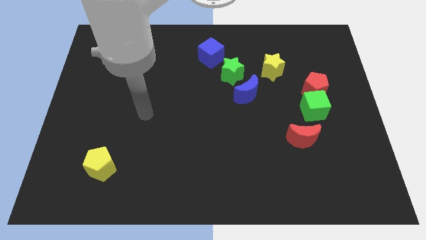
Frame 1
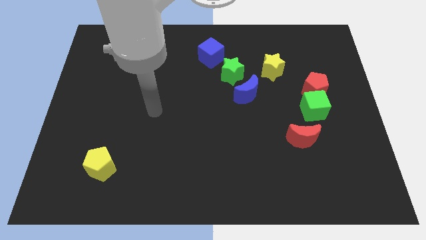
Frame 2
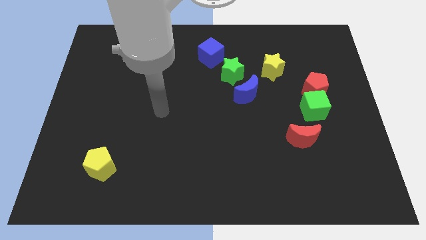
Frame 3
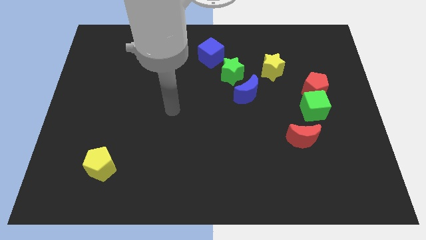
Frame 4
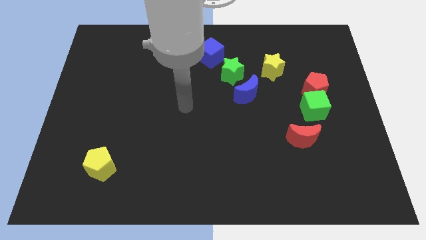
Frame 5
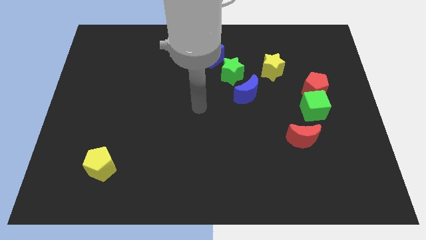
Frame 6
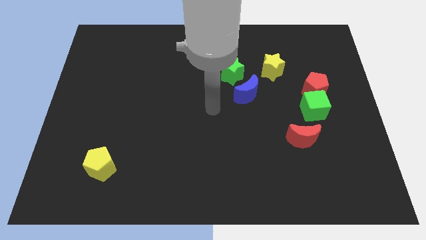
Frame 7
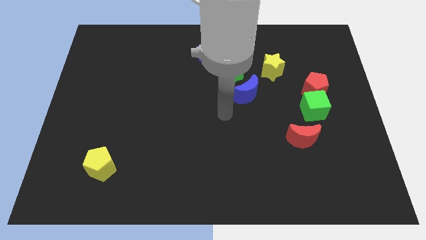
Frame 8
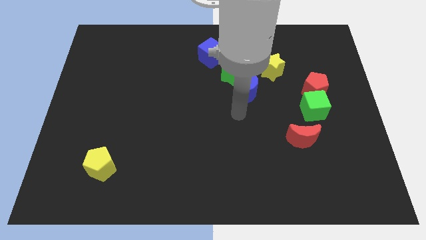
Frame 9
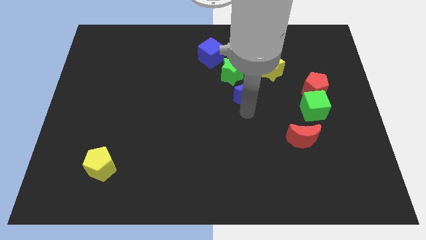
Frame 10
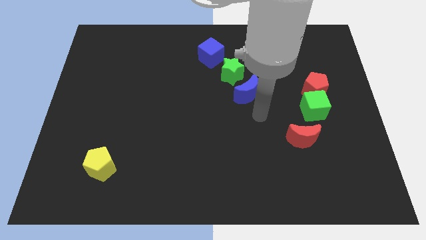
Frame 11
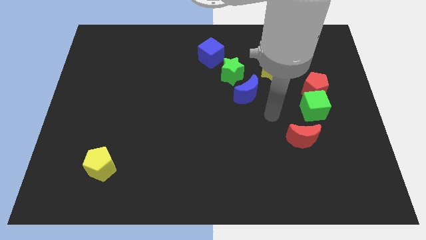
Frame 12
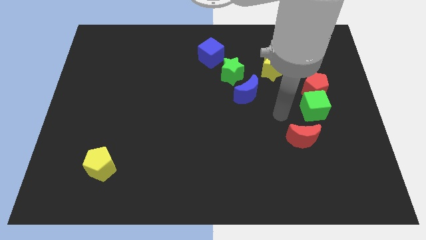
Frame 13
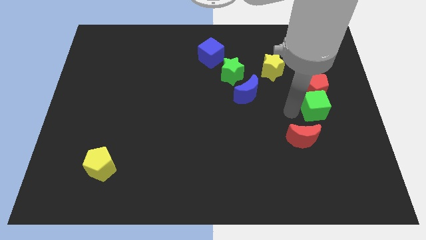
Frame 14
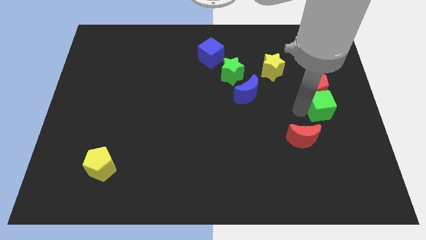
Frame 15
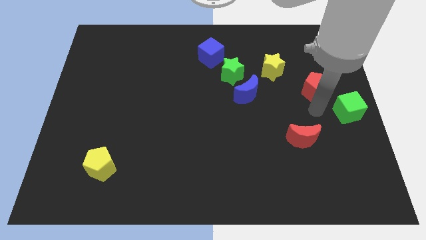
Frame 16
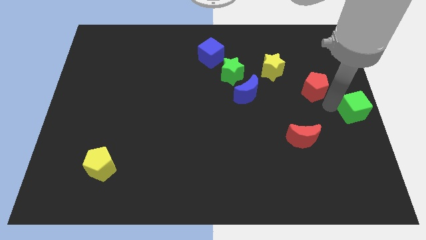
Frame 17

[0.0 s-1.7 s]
separate the red pentagon from the green cube

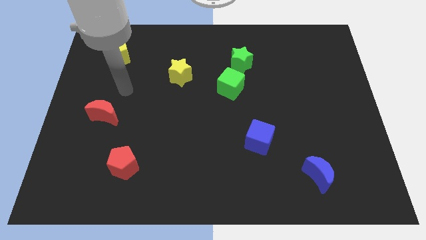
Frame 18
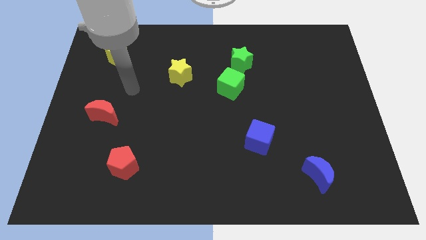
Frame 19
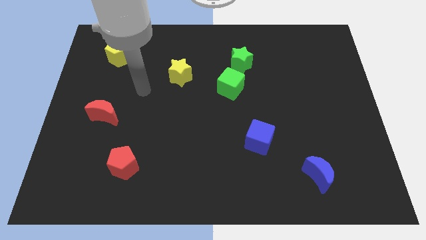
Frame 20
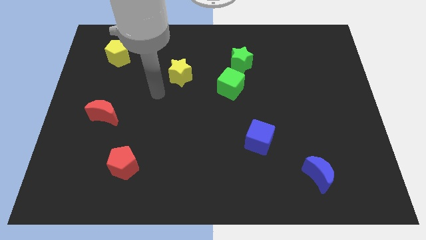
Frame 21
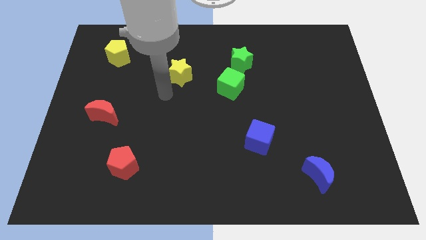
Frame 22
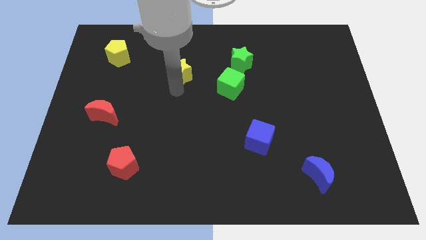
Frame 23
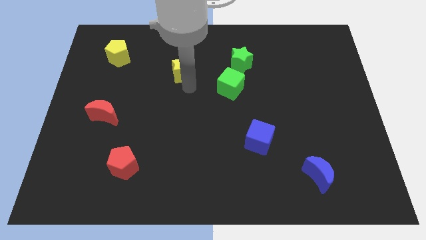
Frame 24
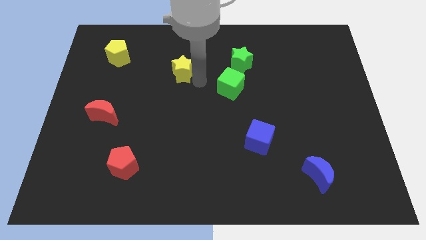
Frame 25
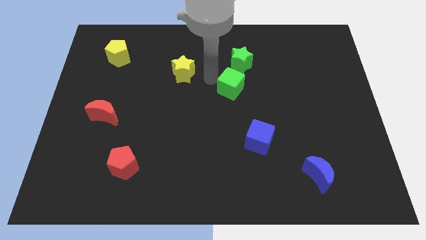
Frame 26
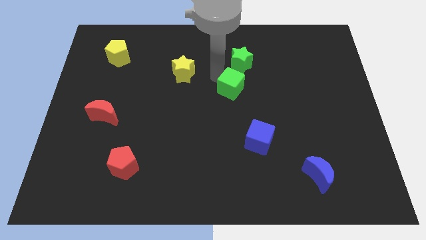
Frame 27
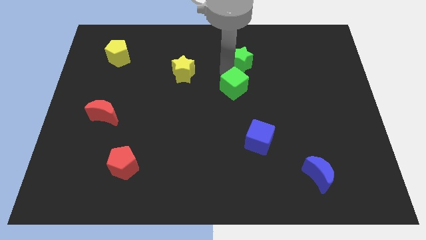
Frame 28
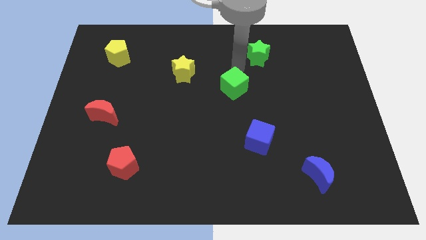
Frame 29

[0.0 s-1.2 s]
pull the green cube apart from the green star

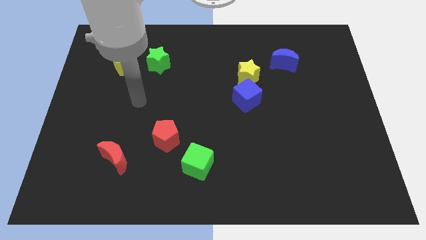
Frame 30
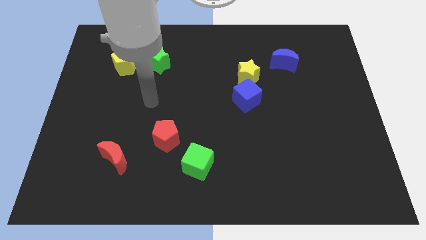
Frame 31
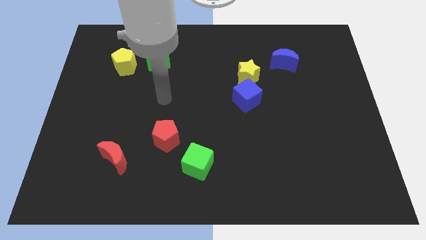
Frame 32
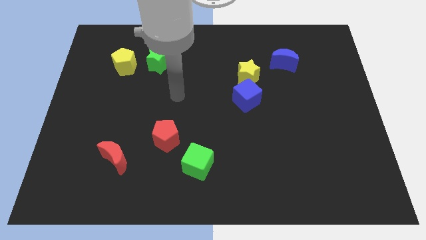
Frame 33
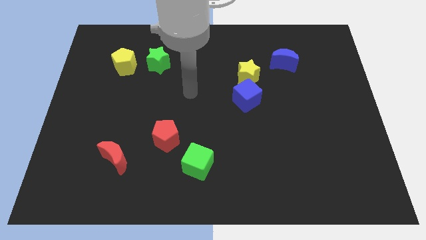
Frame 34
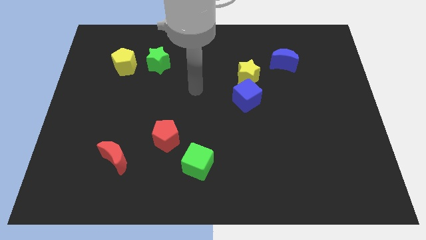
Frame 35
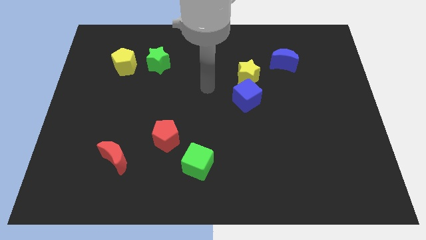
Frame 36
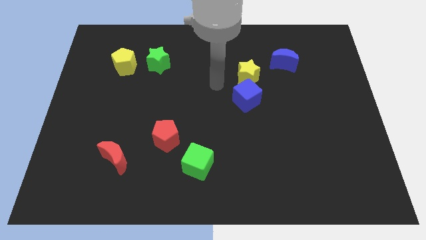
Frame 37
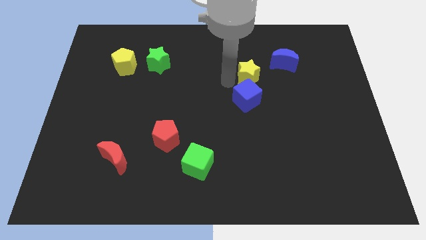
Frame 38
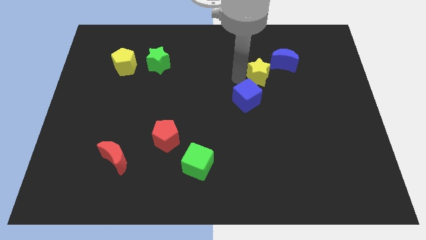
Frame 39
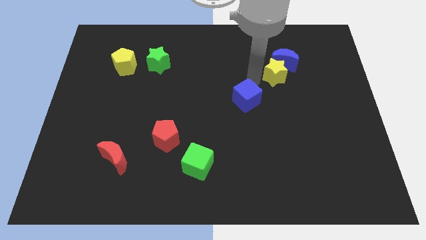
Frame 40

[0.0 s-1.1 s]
pull the blue cube apart from the yellow star

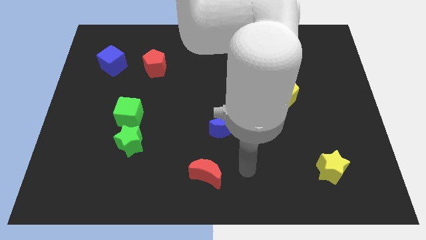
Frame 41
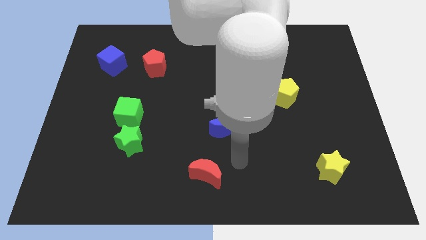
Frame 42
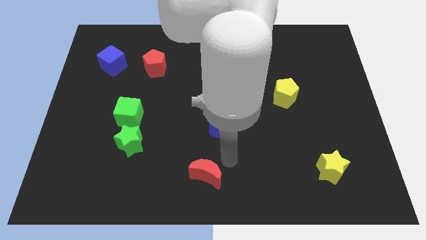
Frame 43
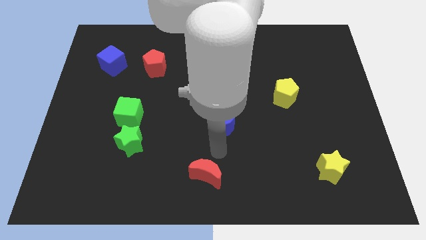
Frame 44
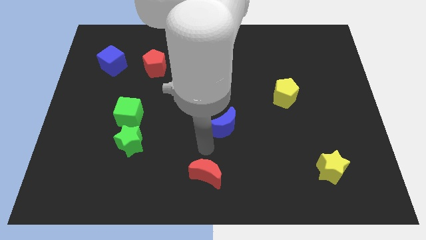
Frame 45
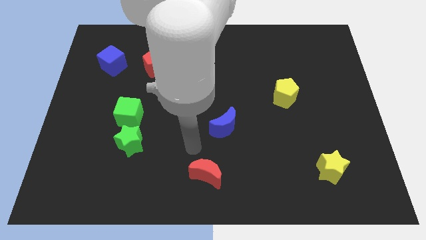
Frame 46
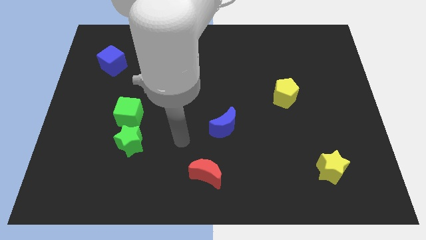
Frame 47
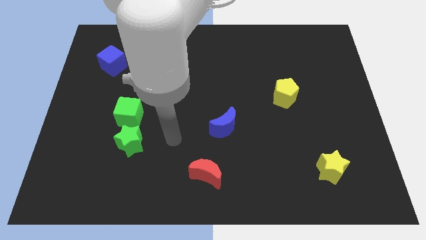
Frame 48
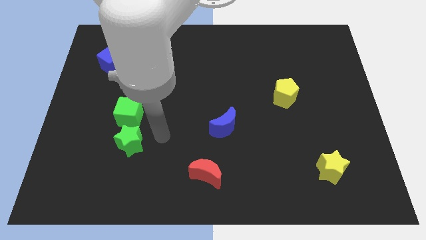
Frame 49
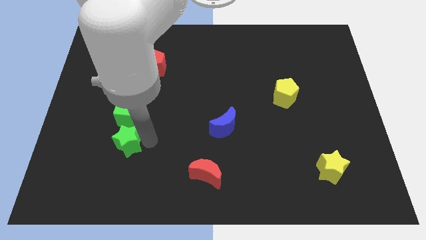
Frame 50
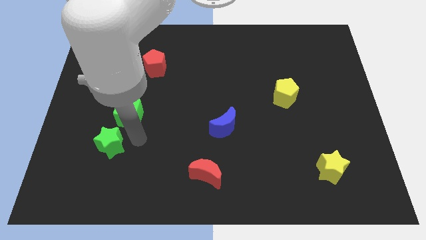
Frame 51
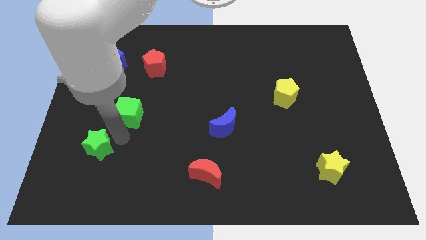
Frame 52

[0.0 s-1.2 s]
separate the green cube from the green star

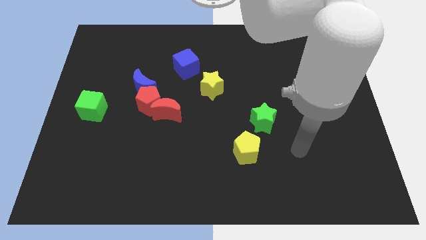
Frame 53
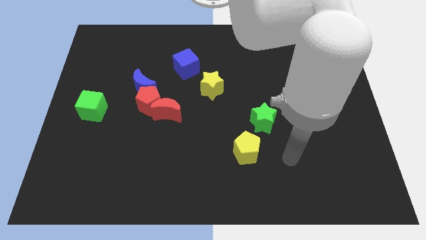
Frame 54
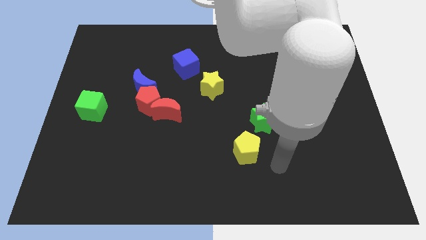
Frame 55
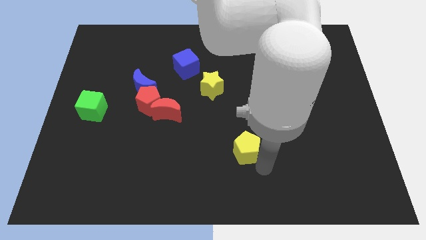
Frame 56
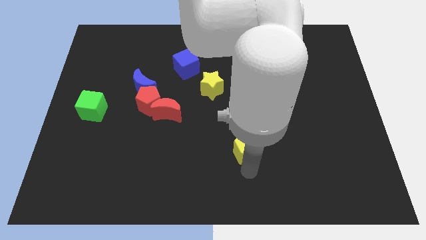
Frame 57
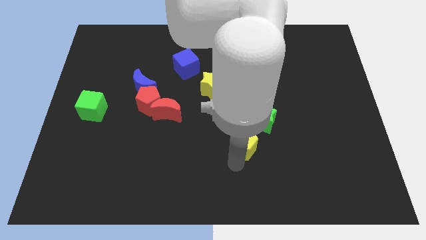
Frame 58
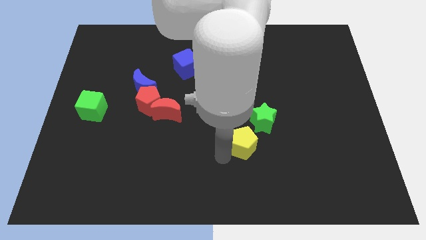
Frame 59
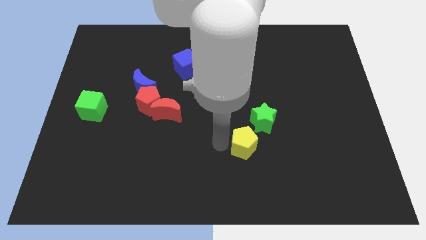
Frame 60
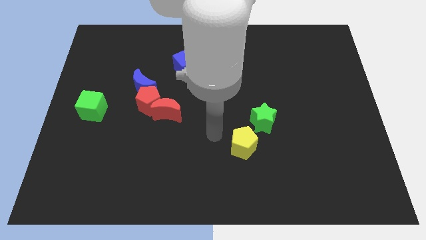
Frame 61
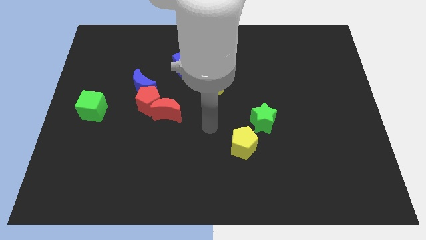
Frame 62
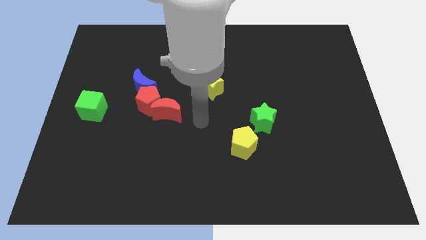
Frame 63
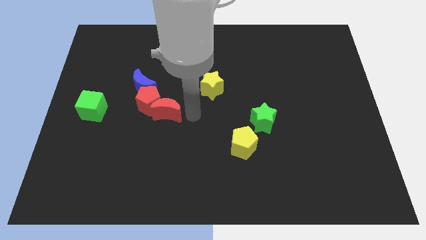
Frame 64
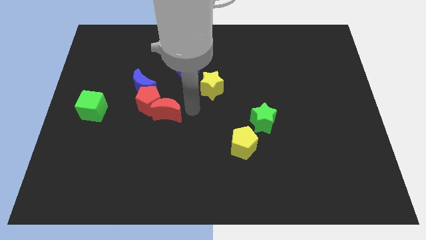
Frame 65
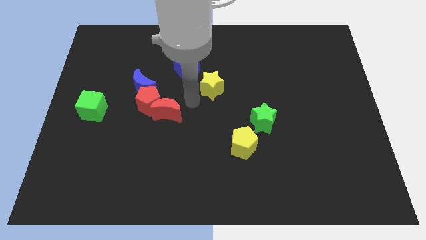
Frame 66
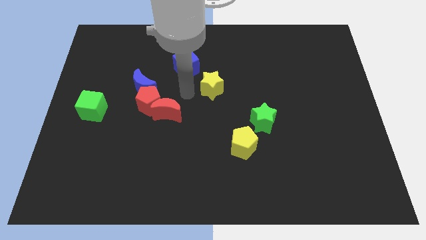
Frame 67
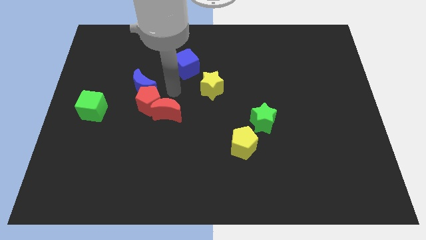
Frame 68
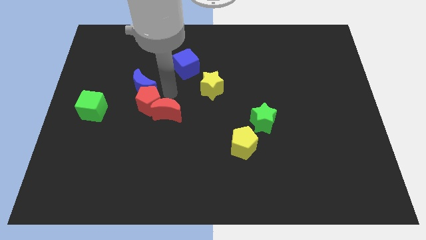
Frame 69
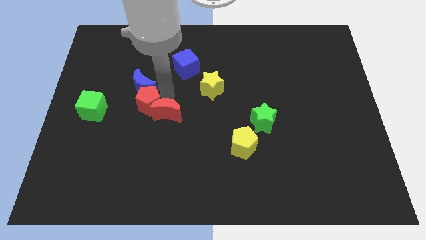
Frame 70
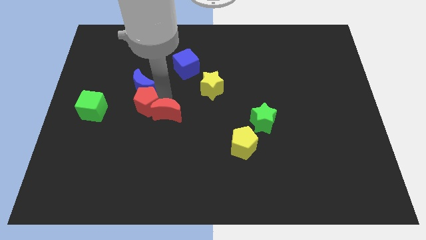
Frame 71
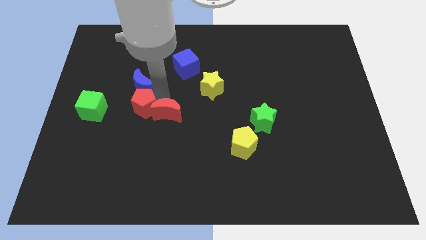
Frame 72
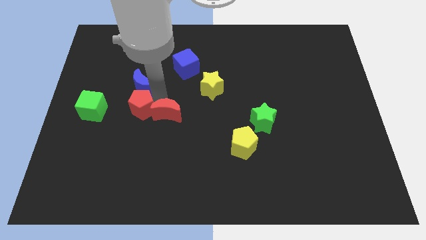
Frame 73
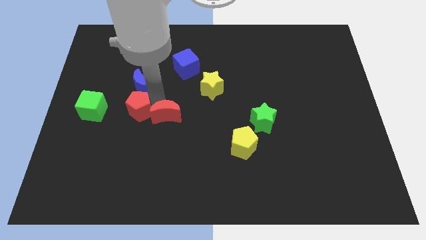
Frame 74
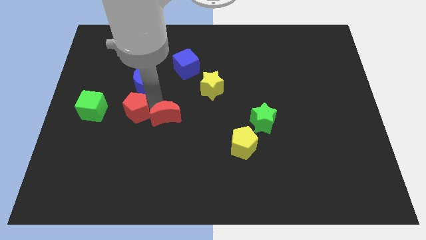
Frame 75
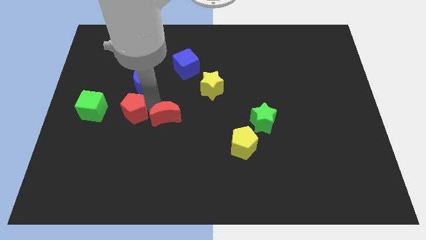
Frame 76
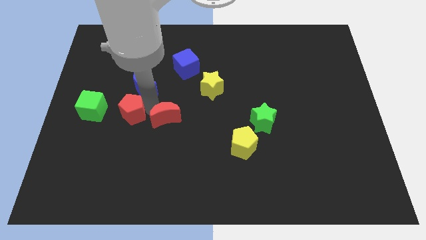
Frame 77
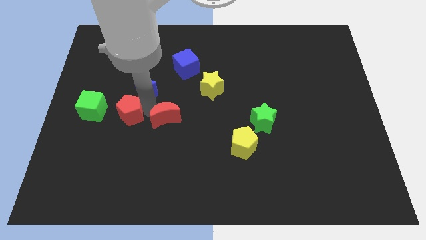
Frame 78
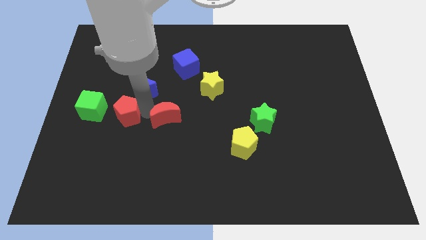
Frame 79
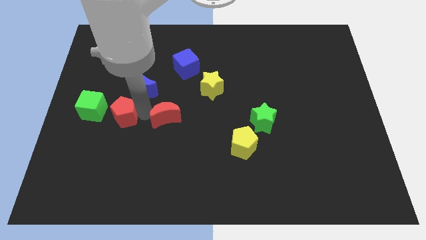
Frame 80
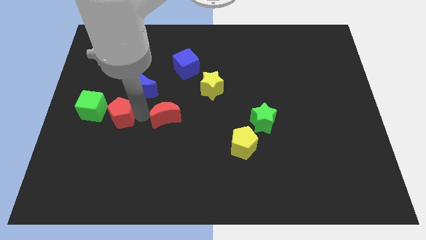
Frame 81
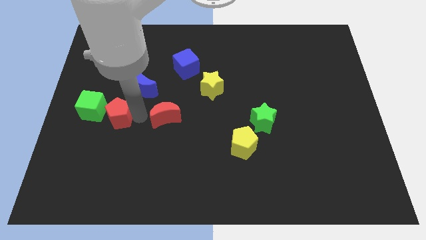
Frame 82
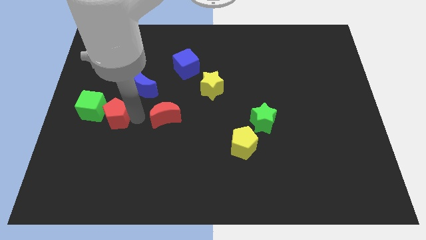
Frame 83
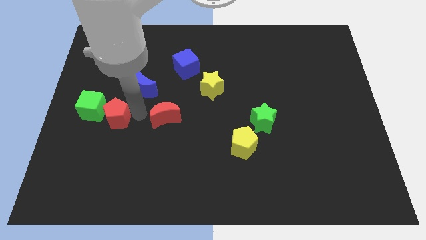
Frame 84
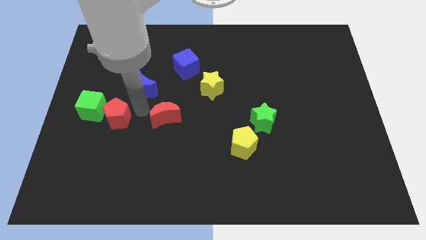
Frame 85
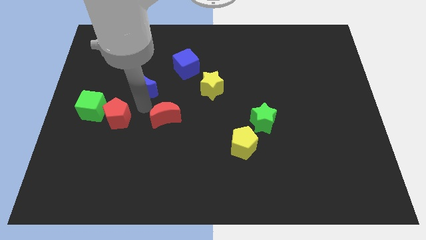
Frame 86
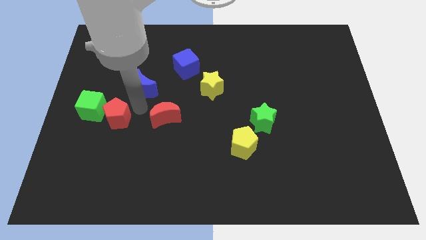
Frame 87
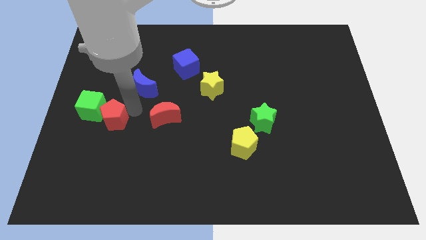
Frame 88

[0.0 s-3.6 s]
separate the red pentagon from the red moon and blue moon

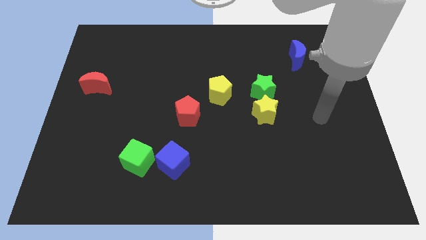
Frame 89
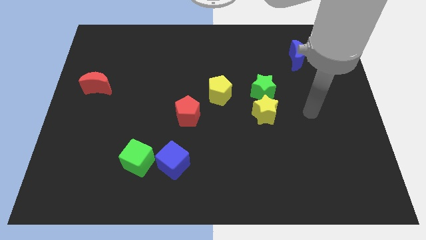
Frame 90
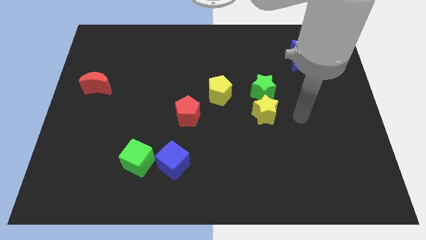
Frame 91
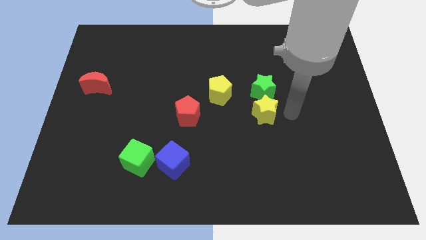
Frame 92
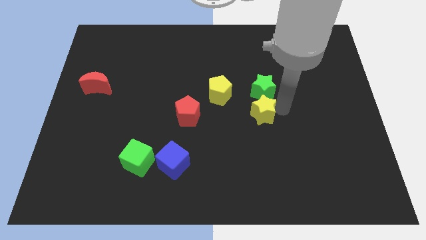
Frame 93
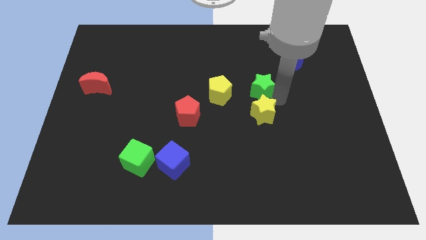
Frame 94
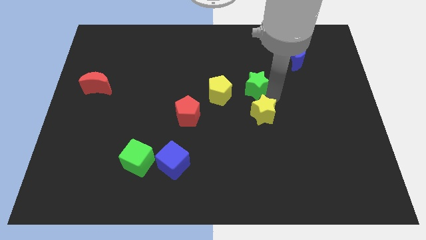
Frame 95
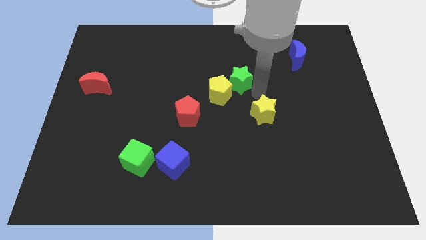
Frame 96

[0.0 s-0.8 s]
separate the yellow star from the green star
